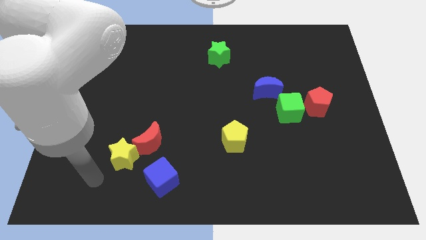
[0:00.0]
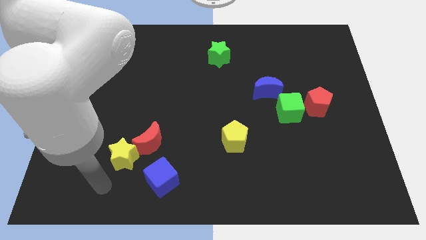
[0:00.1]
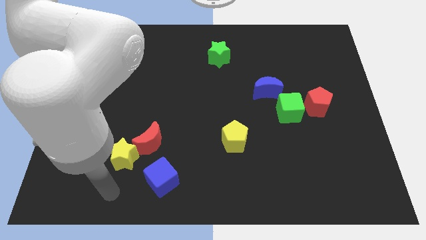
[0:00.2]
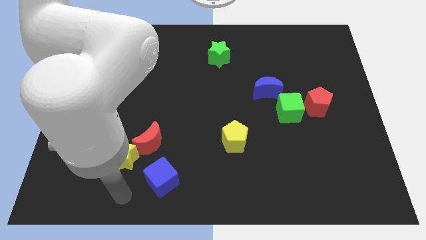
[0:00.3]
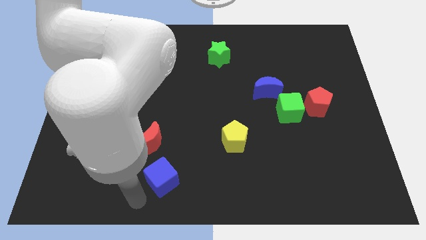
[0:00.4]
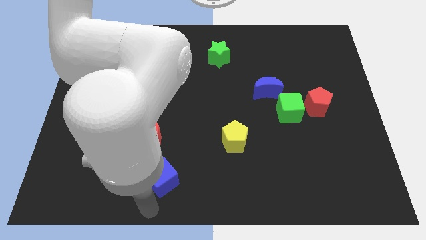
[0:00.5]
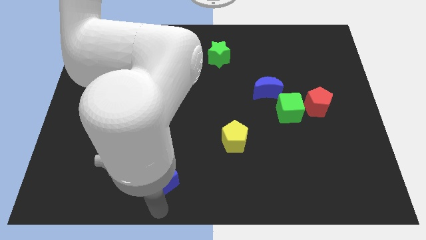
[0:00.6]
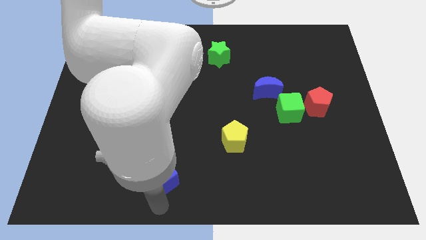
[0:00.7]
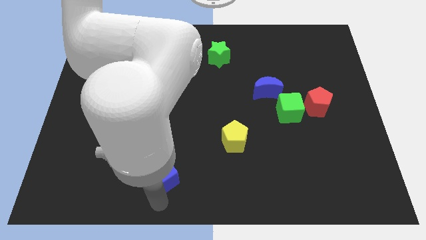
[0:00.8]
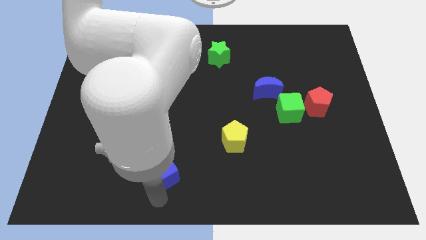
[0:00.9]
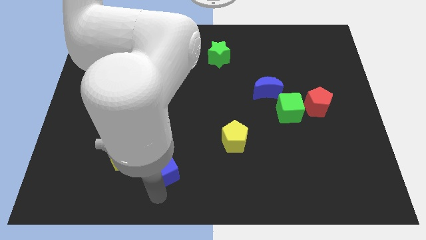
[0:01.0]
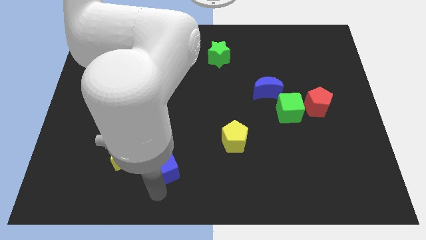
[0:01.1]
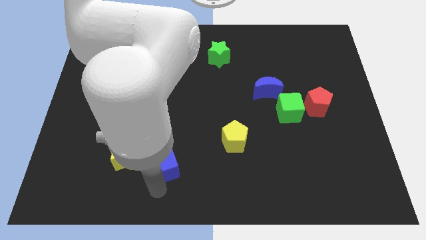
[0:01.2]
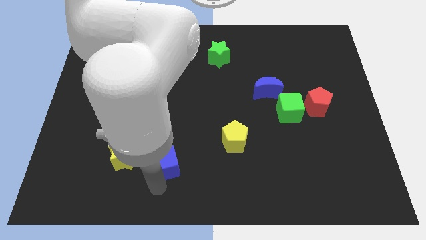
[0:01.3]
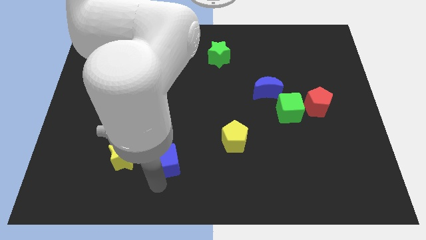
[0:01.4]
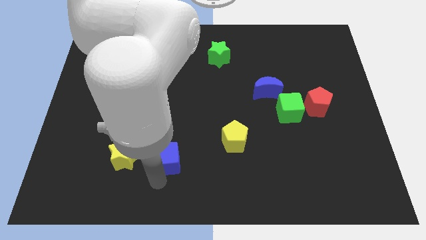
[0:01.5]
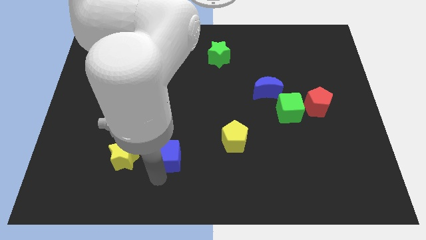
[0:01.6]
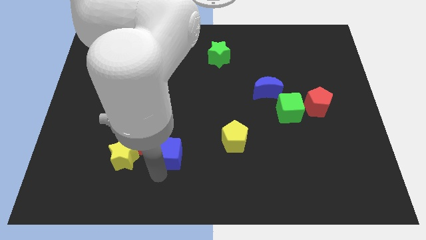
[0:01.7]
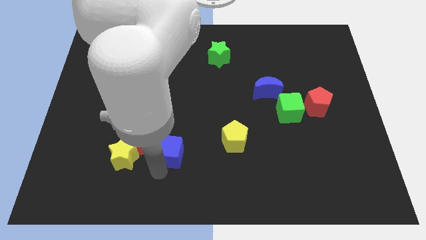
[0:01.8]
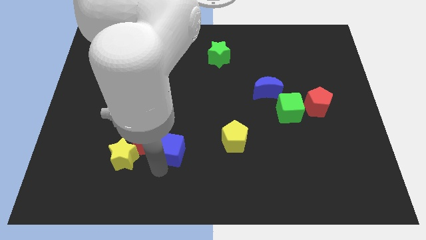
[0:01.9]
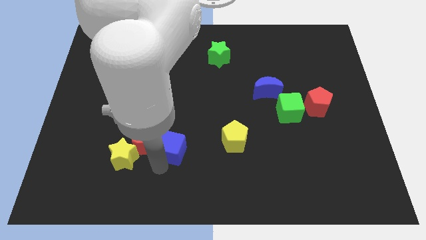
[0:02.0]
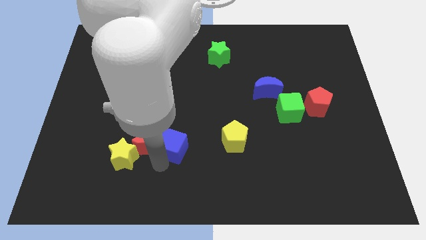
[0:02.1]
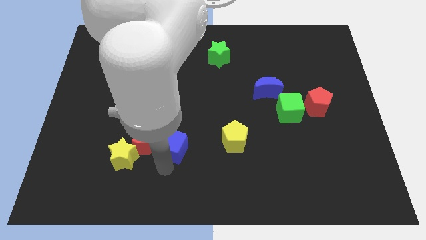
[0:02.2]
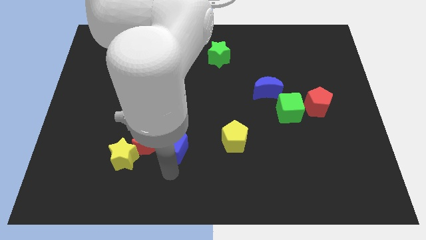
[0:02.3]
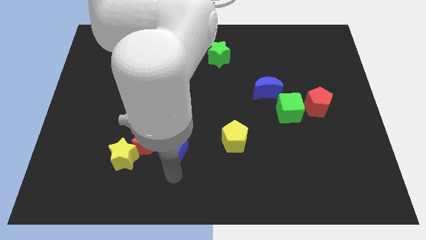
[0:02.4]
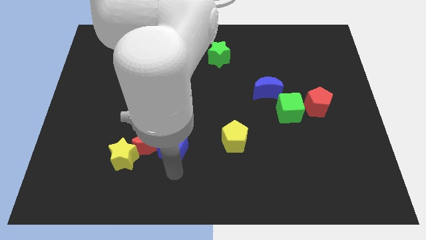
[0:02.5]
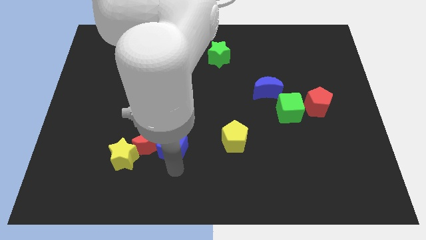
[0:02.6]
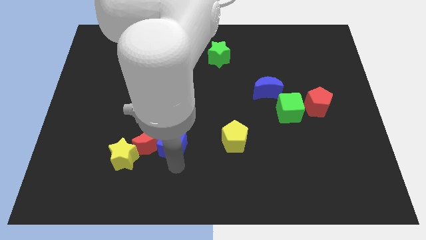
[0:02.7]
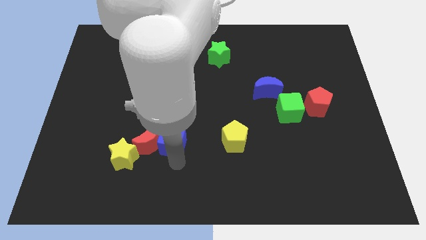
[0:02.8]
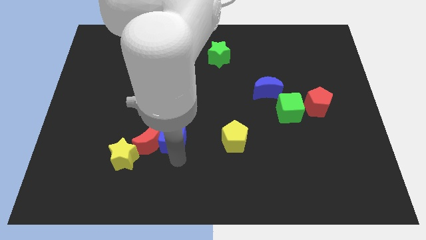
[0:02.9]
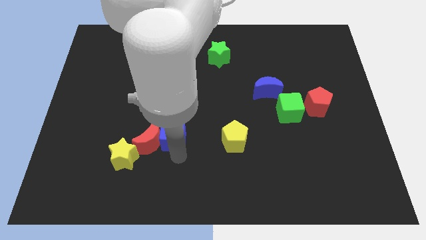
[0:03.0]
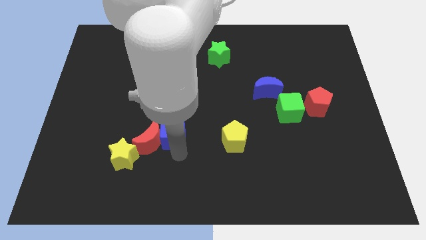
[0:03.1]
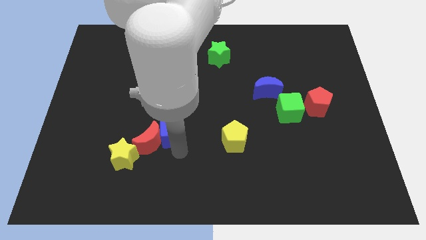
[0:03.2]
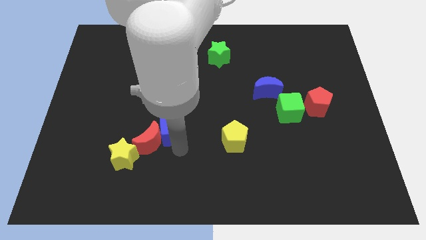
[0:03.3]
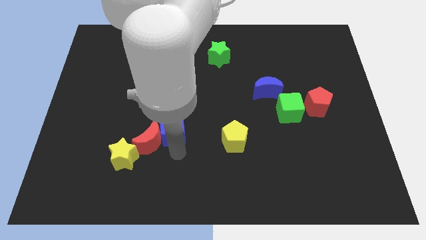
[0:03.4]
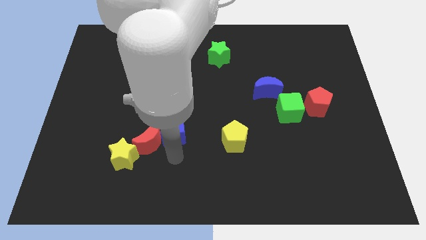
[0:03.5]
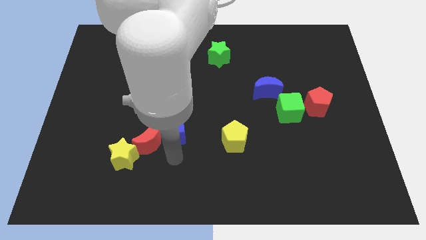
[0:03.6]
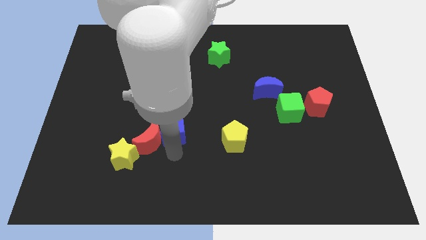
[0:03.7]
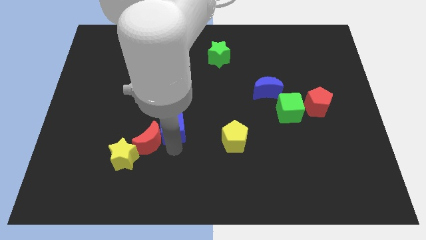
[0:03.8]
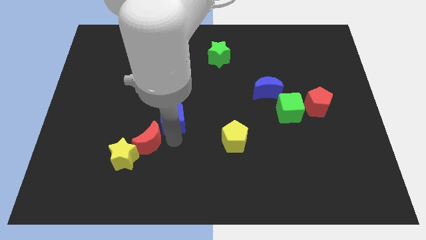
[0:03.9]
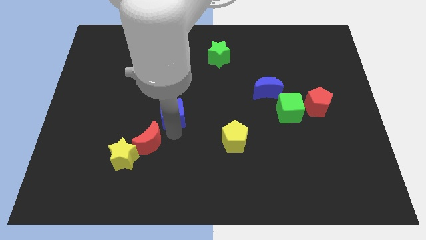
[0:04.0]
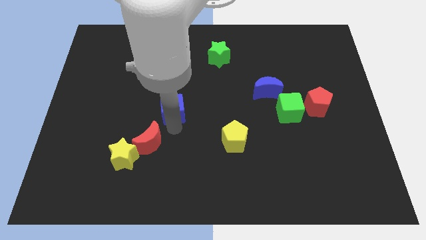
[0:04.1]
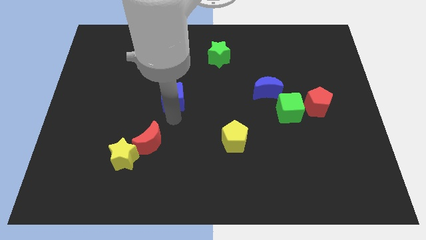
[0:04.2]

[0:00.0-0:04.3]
push the blue cube upwards

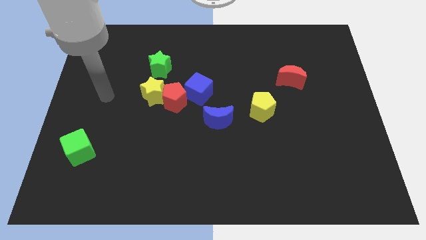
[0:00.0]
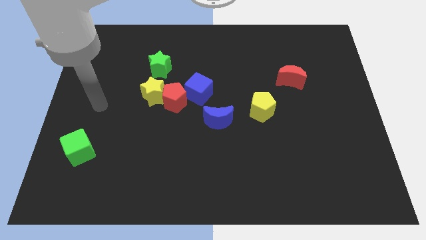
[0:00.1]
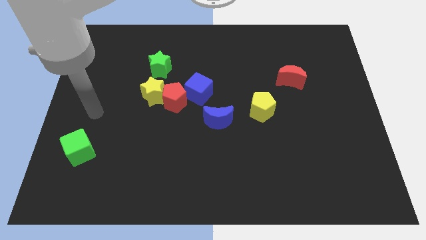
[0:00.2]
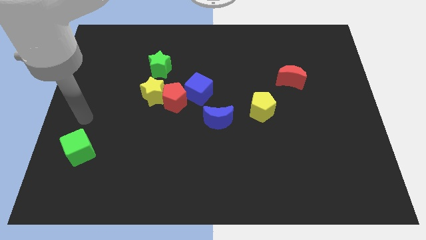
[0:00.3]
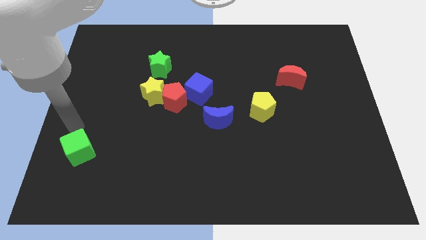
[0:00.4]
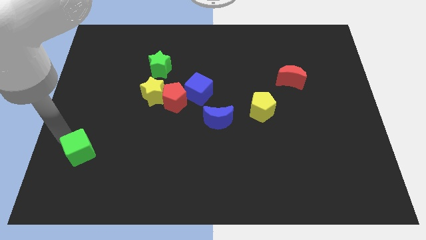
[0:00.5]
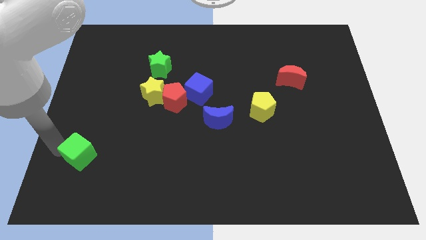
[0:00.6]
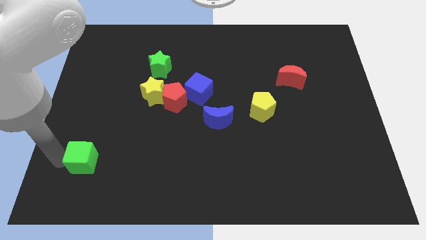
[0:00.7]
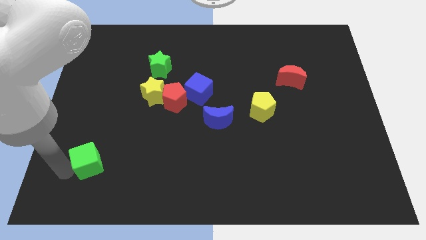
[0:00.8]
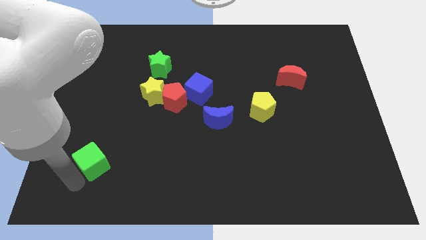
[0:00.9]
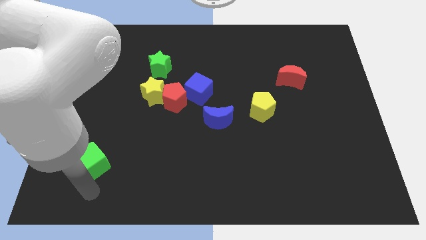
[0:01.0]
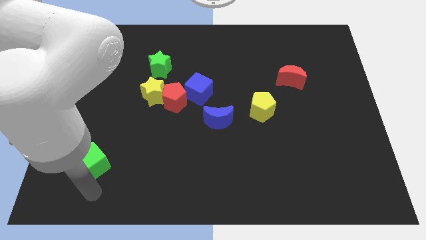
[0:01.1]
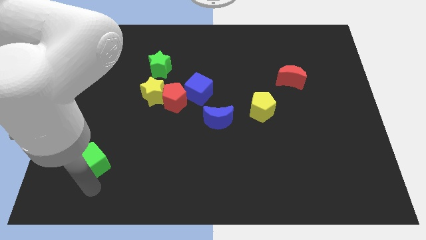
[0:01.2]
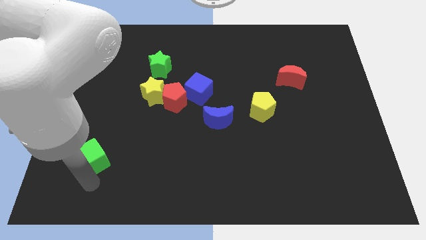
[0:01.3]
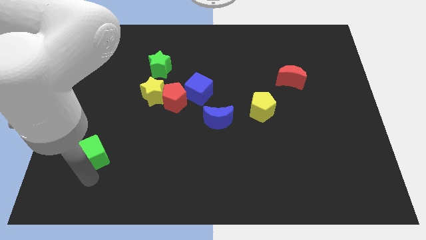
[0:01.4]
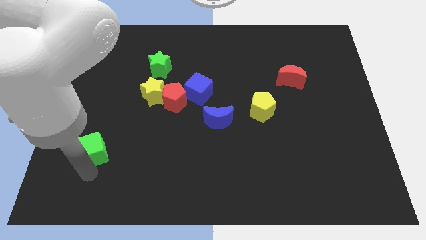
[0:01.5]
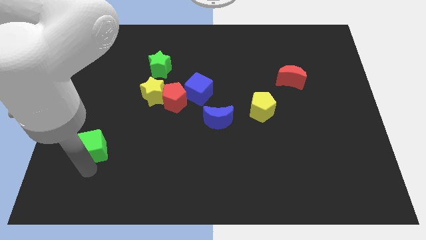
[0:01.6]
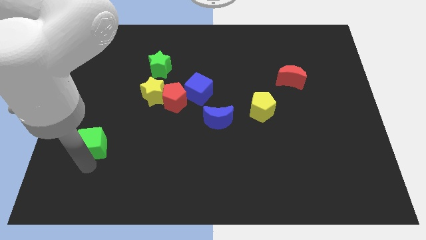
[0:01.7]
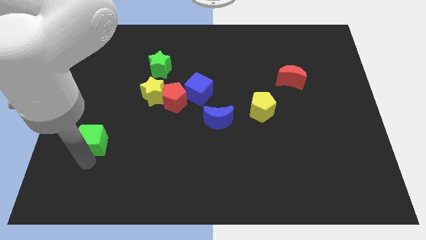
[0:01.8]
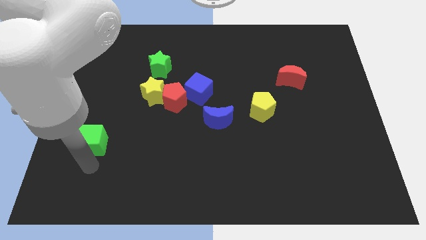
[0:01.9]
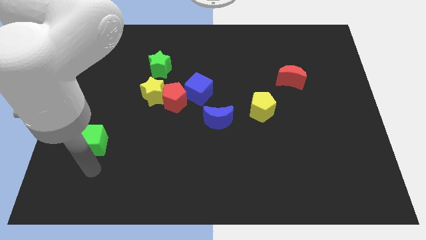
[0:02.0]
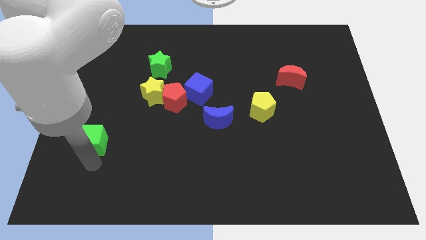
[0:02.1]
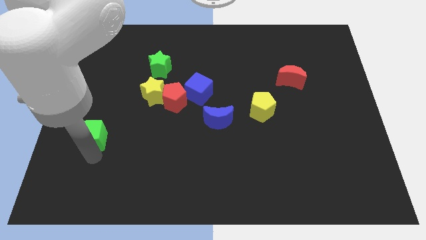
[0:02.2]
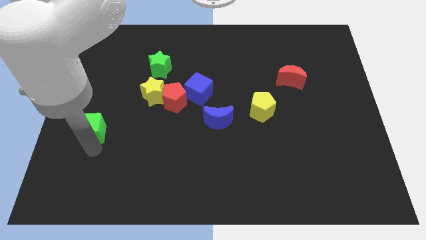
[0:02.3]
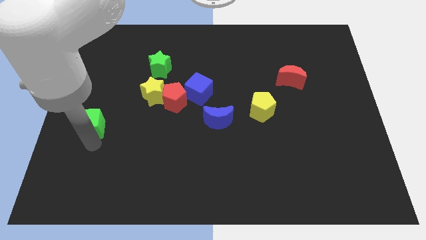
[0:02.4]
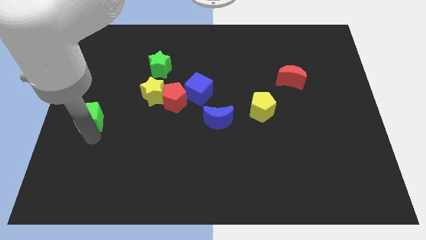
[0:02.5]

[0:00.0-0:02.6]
push the green cube upwards a little

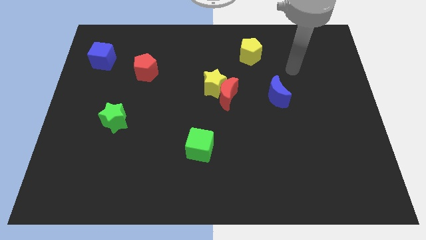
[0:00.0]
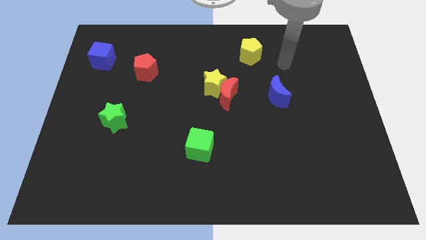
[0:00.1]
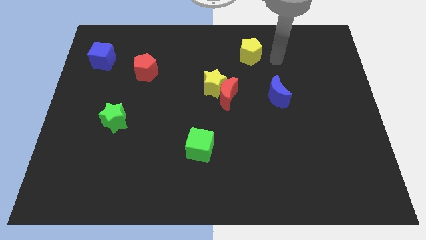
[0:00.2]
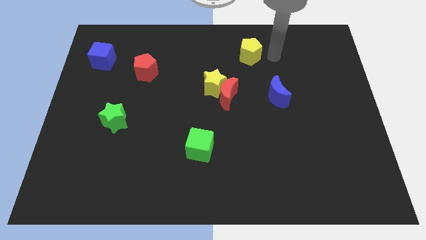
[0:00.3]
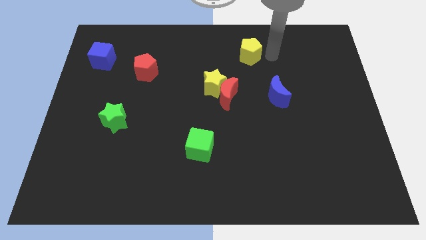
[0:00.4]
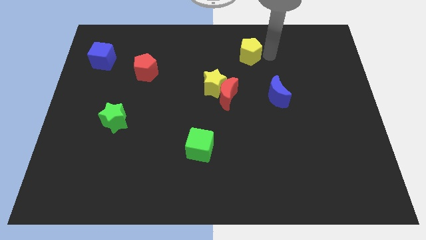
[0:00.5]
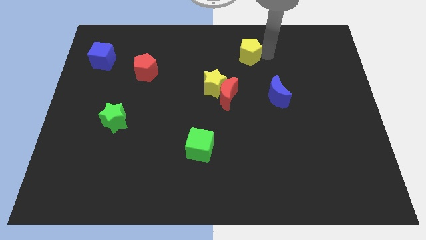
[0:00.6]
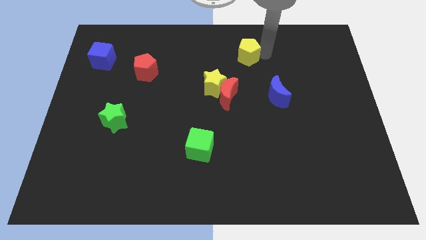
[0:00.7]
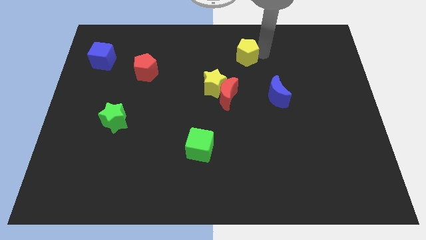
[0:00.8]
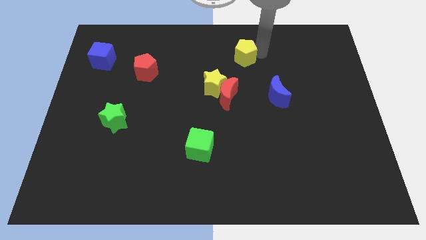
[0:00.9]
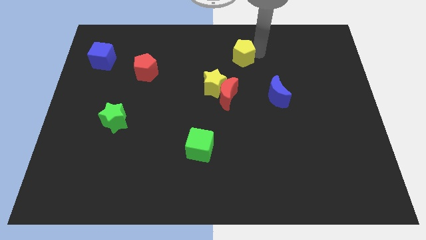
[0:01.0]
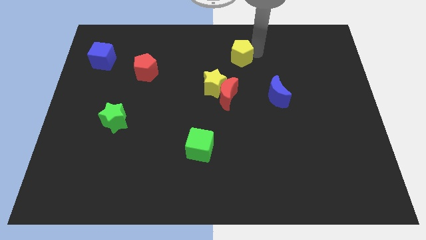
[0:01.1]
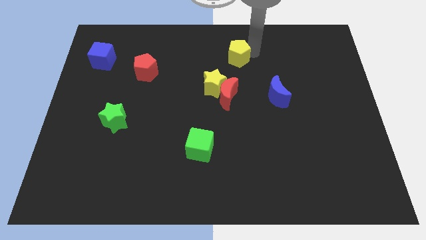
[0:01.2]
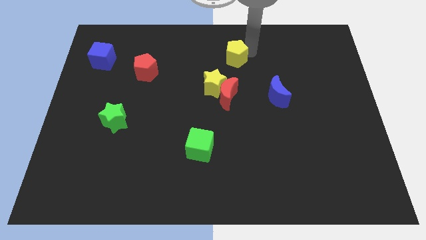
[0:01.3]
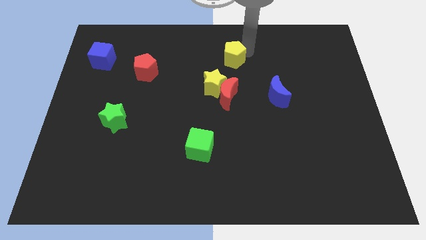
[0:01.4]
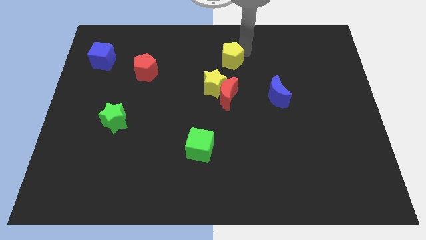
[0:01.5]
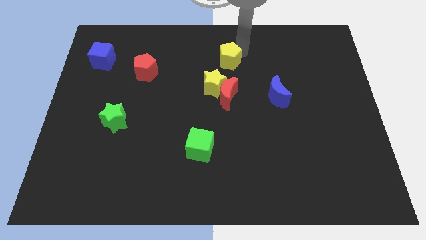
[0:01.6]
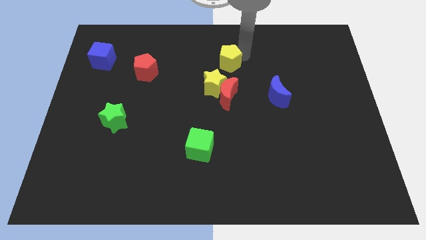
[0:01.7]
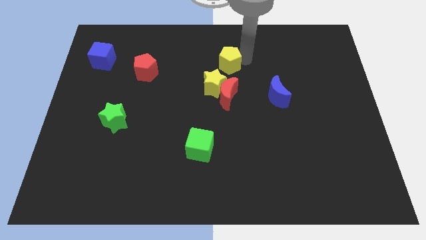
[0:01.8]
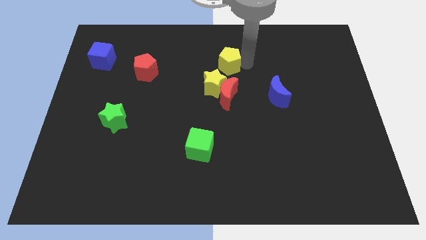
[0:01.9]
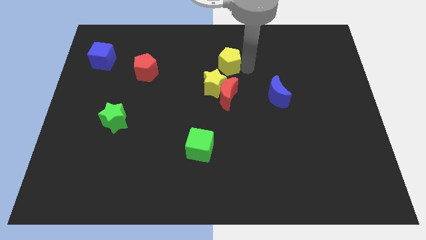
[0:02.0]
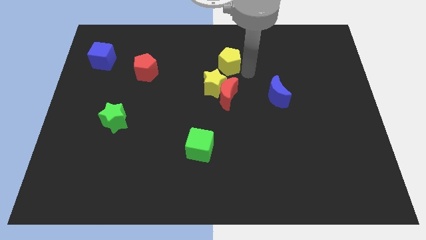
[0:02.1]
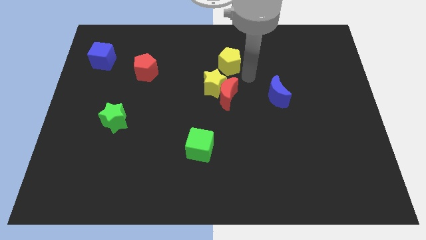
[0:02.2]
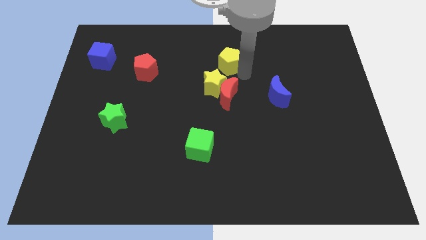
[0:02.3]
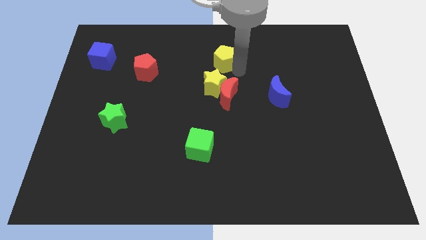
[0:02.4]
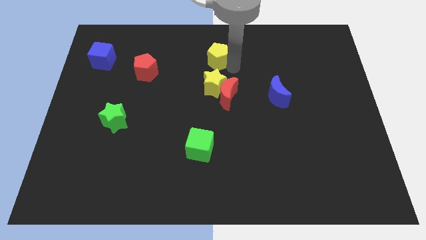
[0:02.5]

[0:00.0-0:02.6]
slide the yellow pentagon left somewhat
